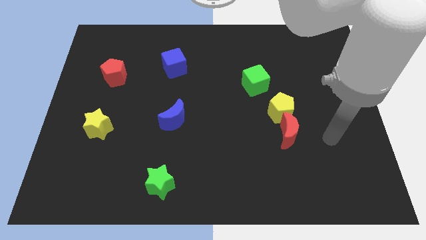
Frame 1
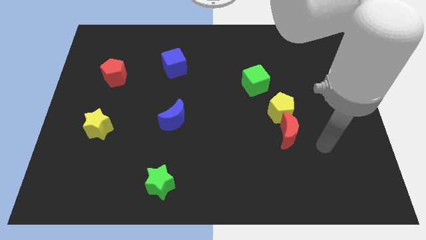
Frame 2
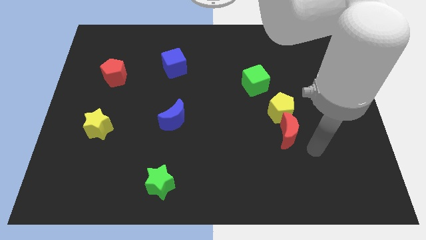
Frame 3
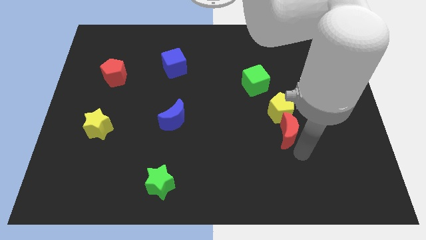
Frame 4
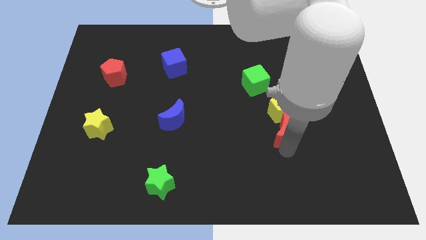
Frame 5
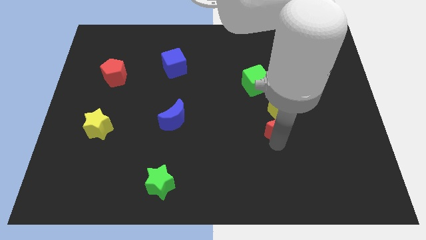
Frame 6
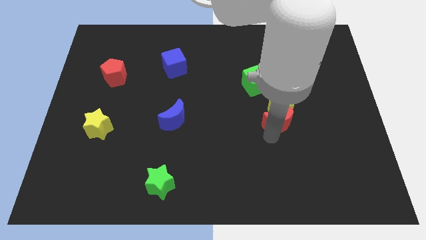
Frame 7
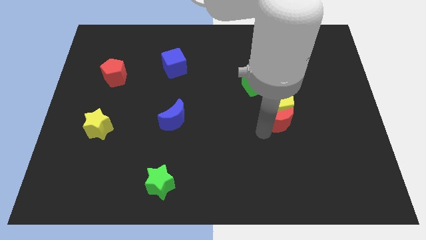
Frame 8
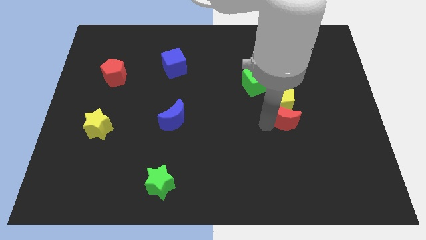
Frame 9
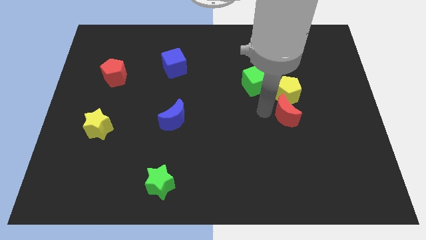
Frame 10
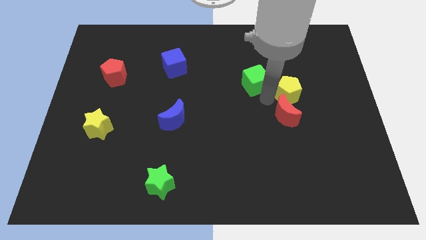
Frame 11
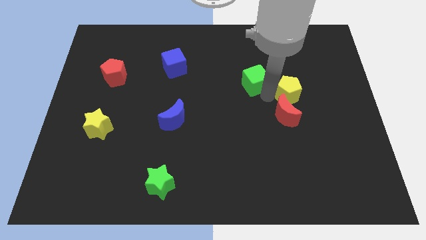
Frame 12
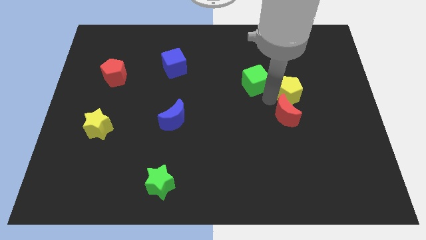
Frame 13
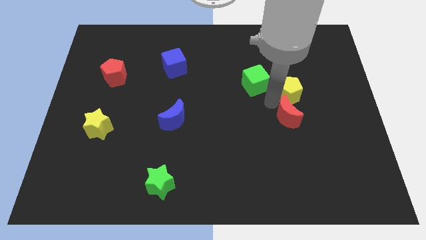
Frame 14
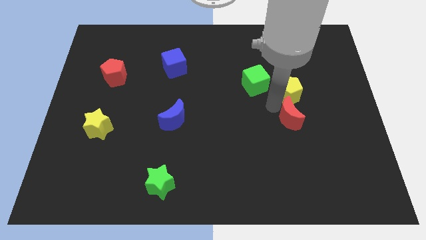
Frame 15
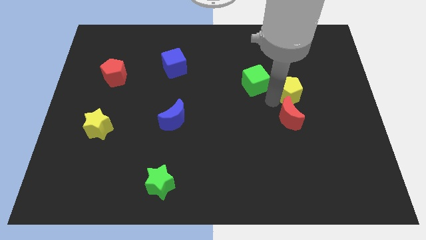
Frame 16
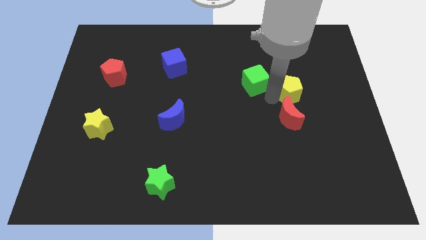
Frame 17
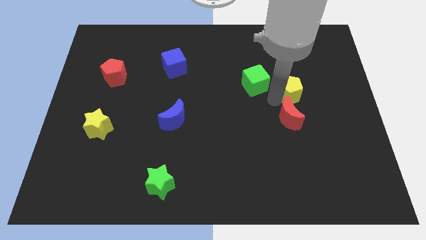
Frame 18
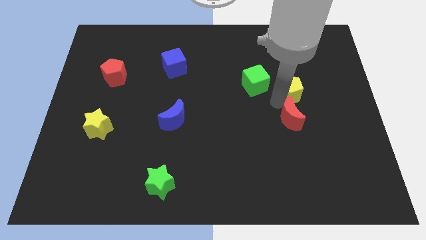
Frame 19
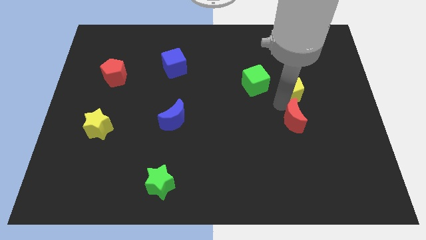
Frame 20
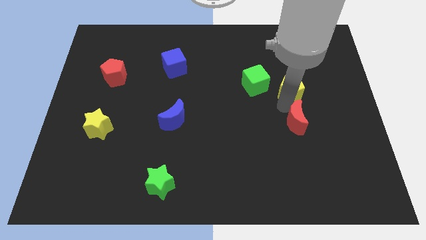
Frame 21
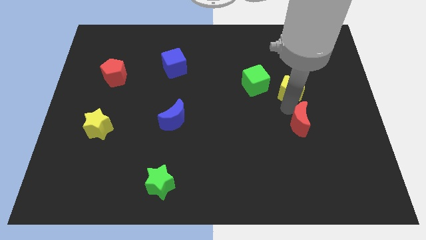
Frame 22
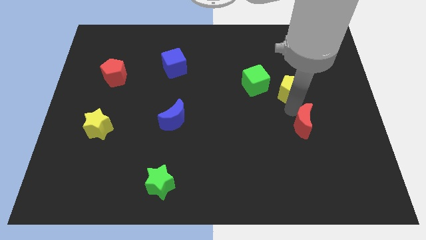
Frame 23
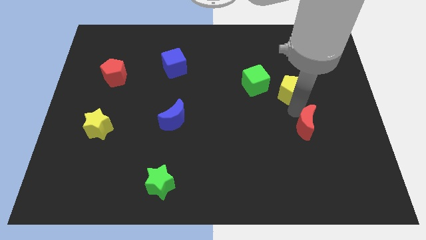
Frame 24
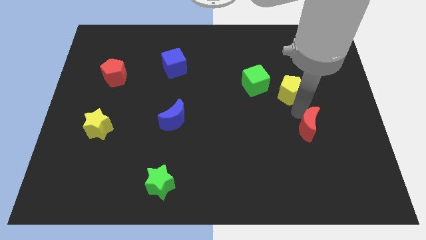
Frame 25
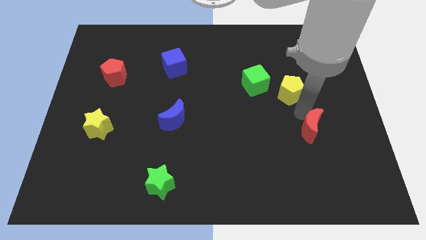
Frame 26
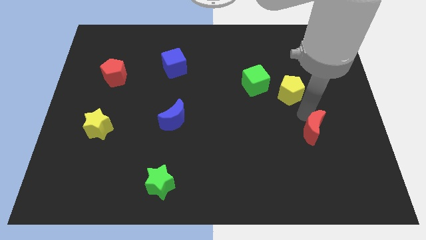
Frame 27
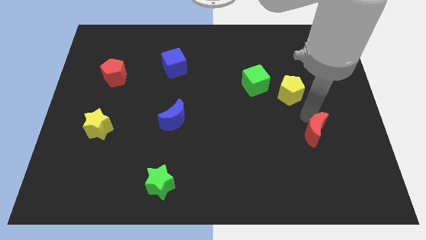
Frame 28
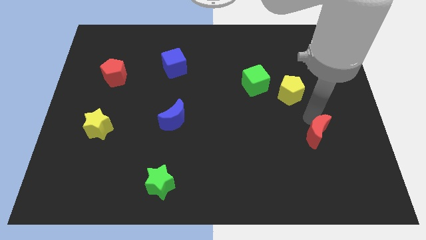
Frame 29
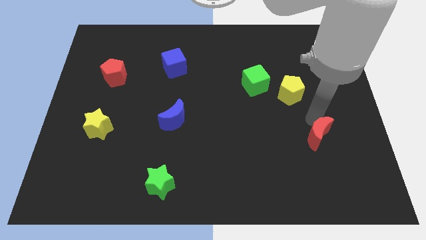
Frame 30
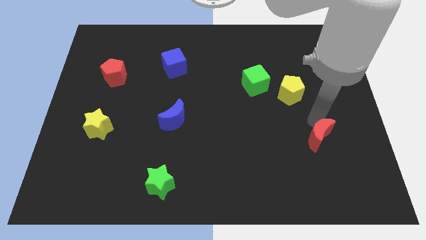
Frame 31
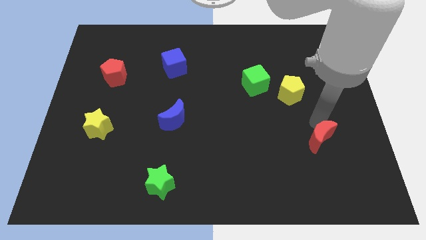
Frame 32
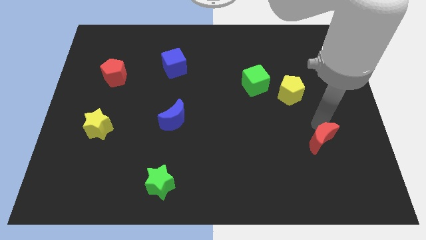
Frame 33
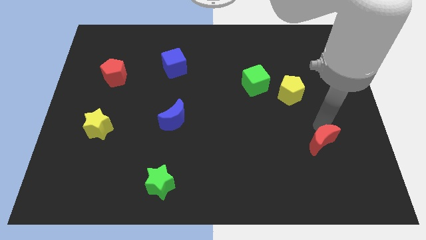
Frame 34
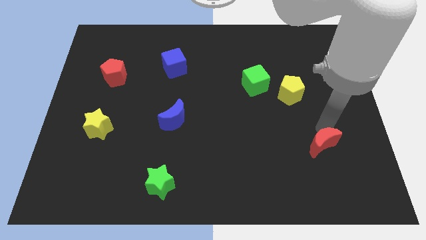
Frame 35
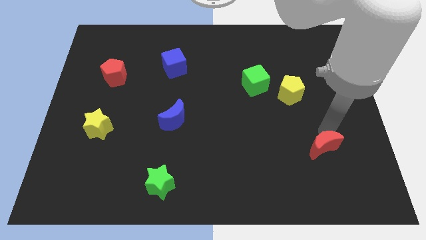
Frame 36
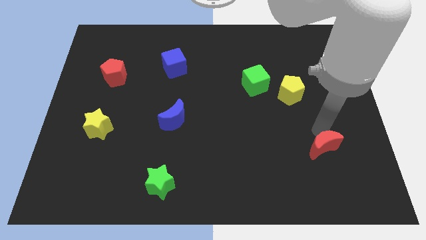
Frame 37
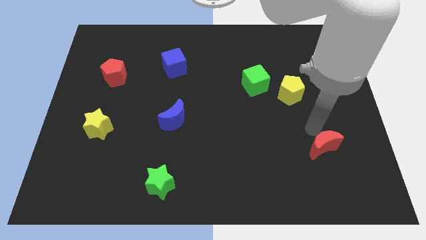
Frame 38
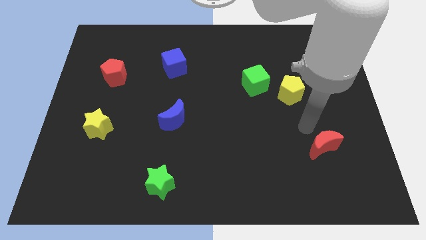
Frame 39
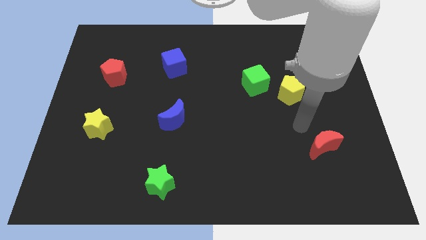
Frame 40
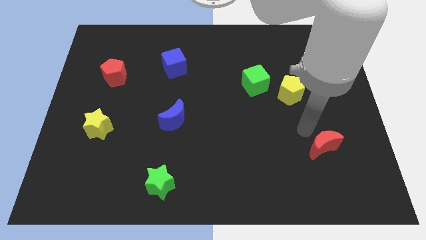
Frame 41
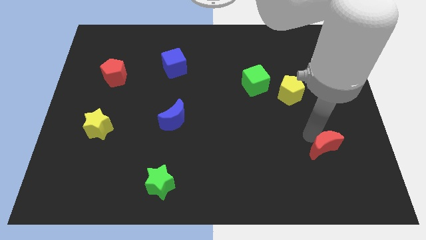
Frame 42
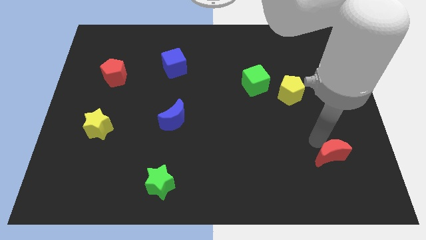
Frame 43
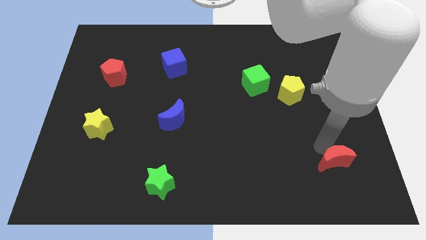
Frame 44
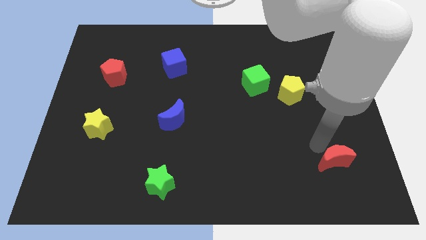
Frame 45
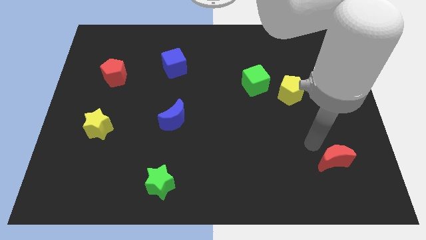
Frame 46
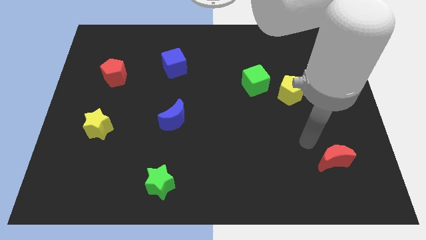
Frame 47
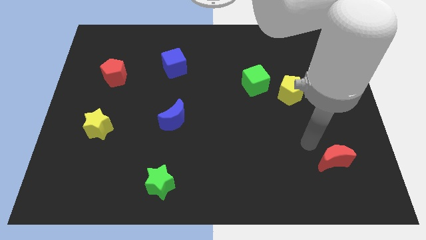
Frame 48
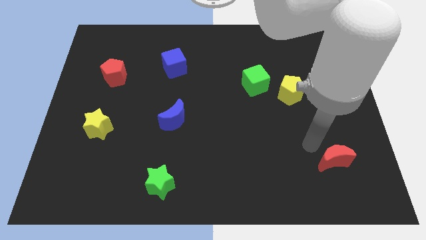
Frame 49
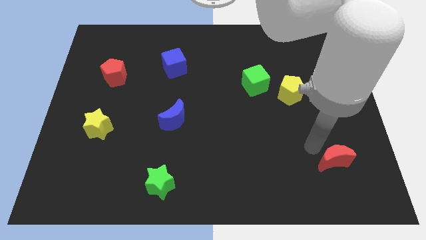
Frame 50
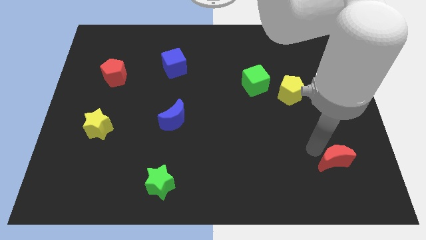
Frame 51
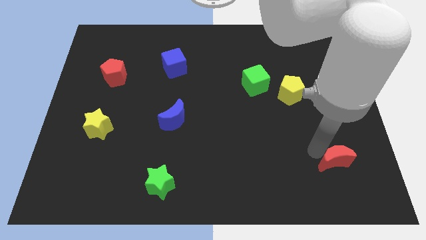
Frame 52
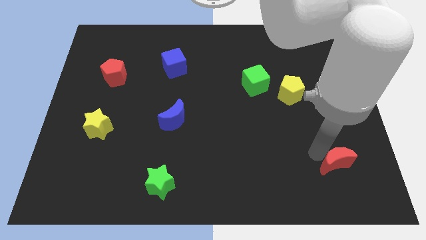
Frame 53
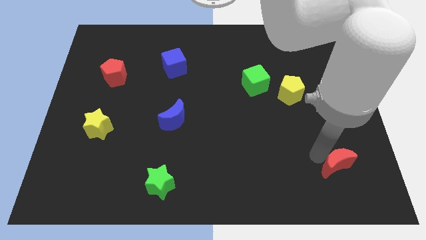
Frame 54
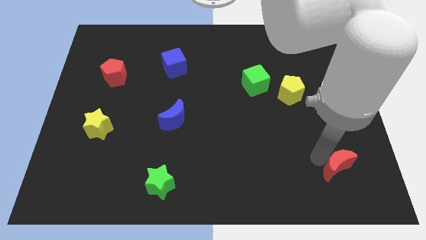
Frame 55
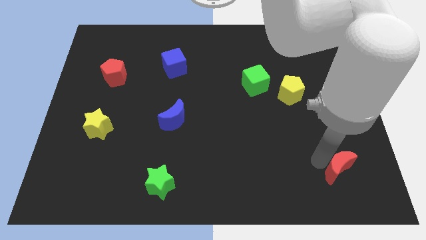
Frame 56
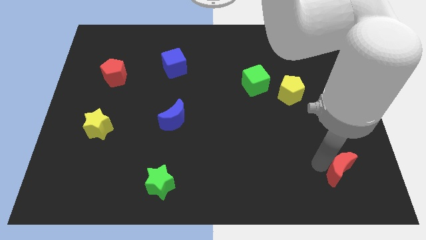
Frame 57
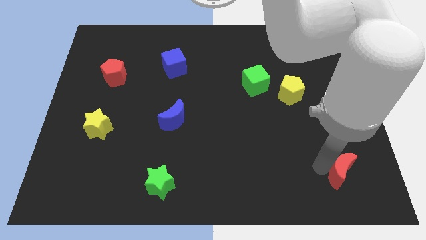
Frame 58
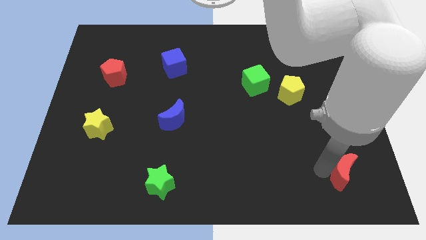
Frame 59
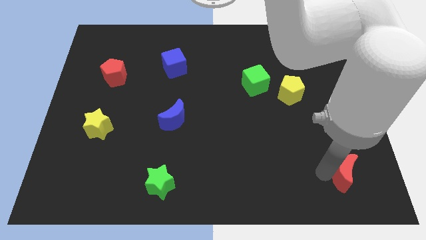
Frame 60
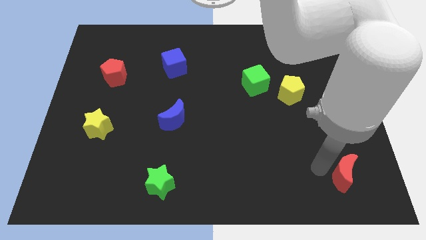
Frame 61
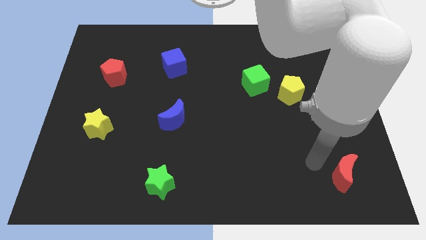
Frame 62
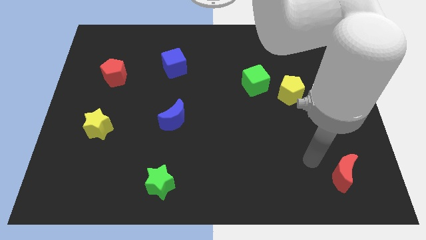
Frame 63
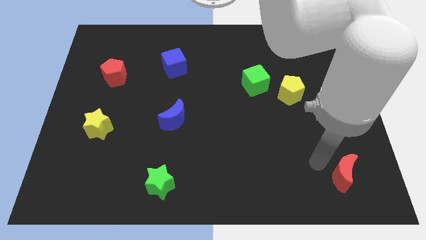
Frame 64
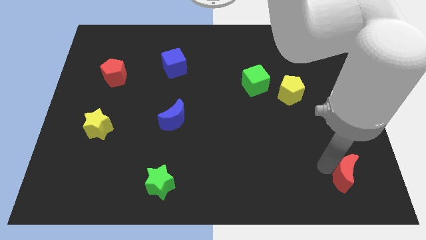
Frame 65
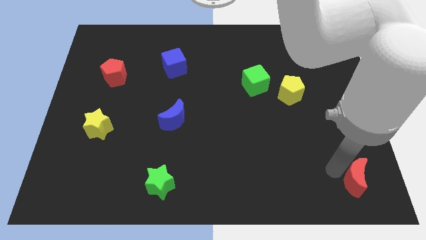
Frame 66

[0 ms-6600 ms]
move the red moon to the lower right corner
